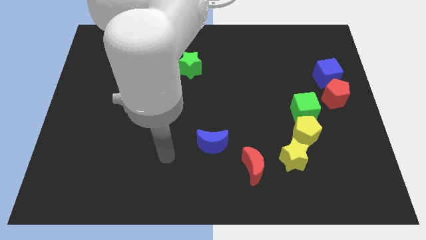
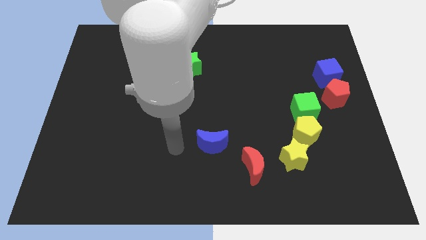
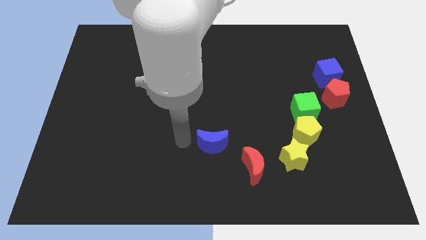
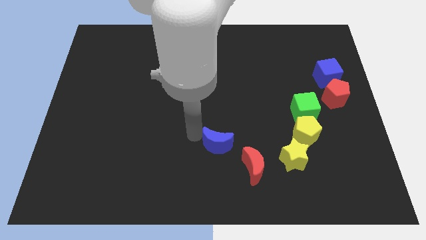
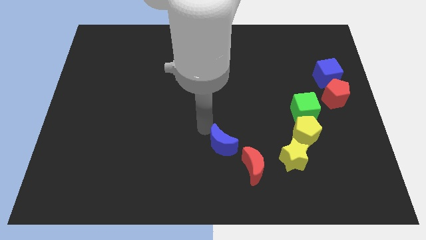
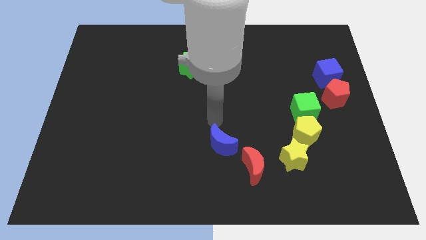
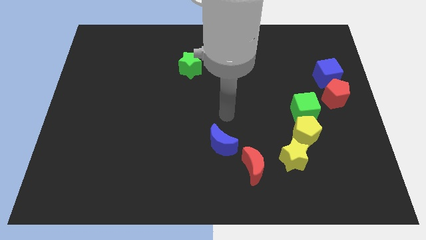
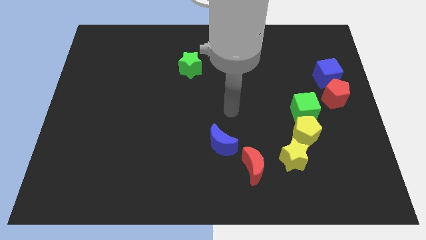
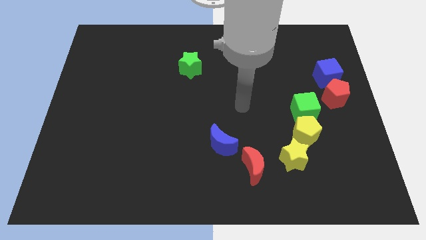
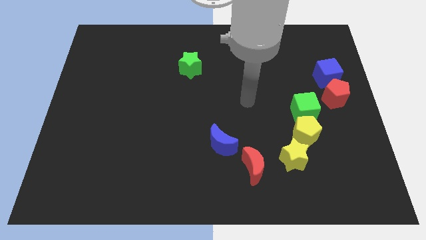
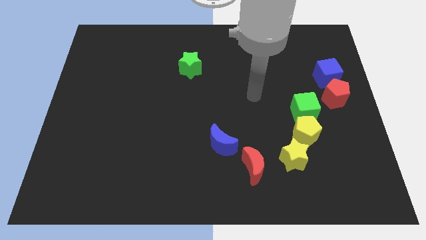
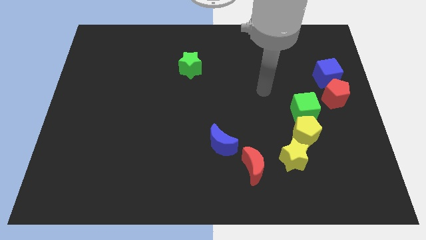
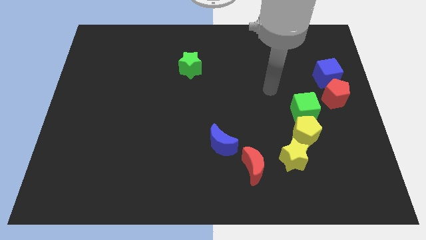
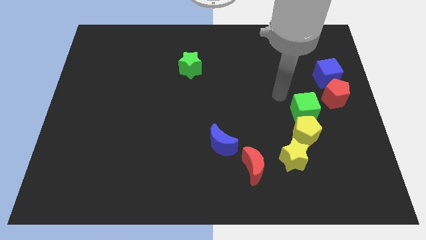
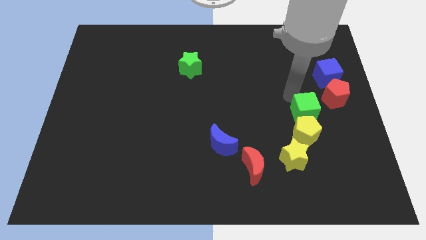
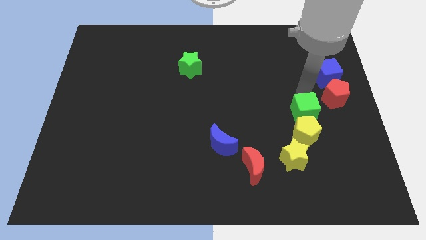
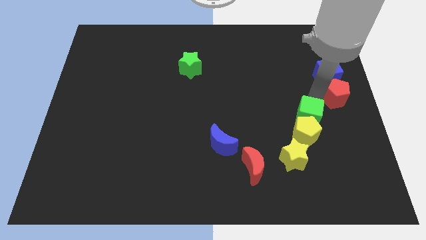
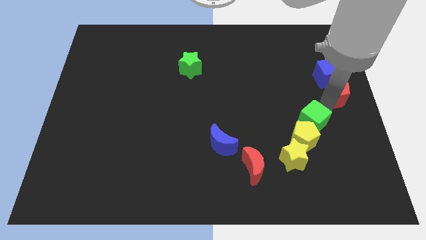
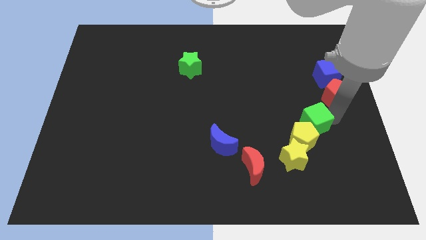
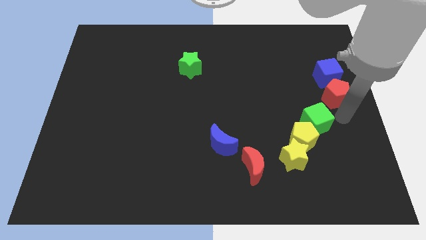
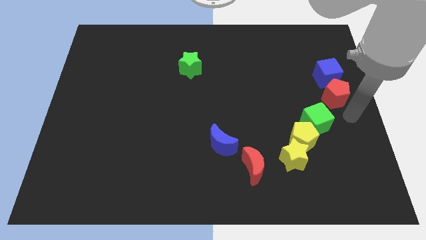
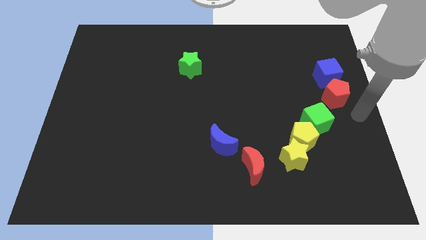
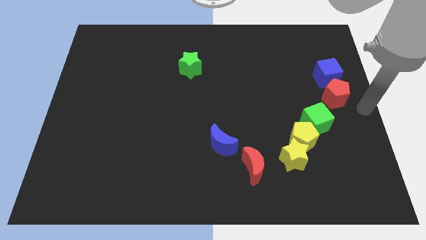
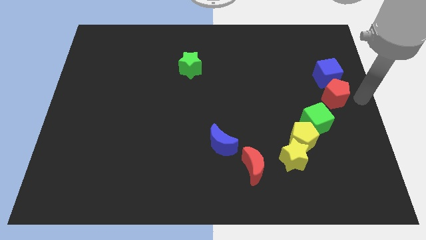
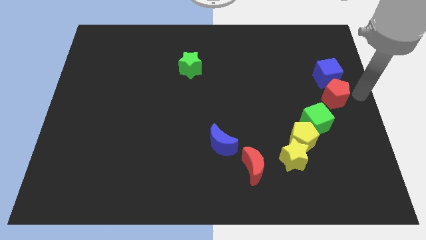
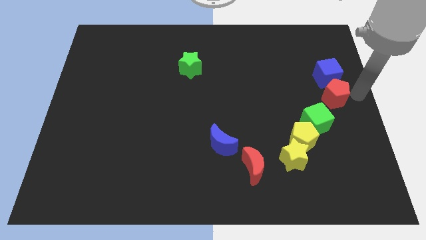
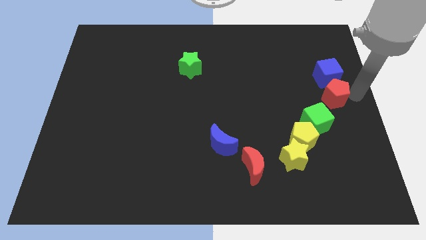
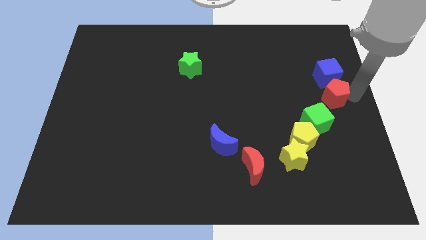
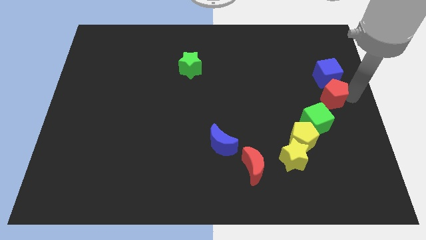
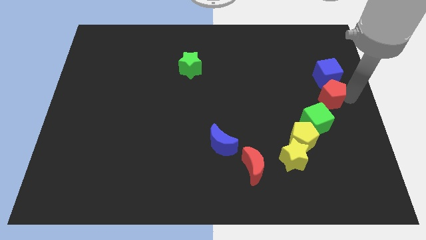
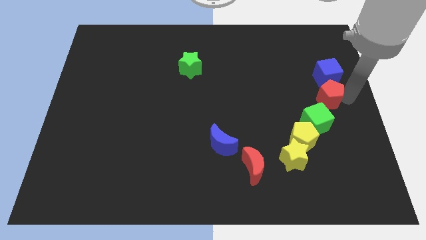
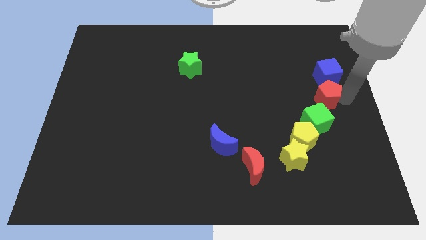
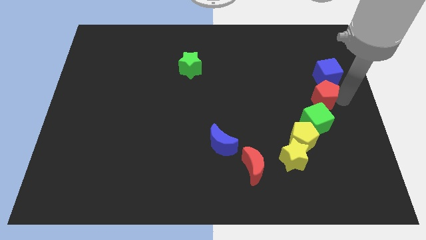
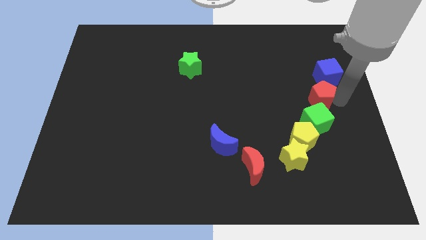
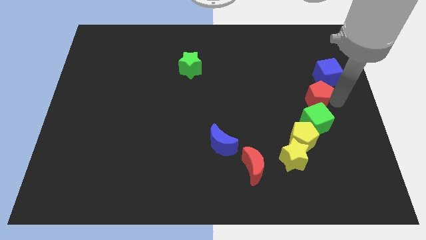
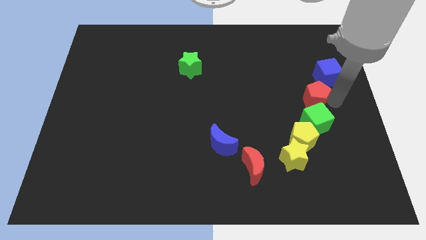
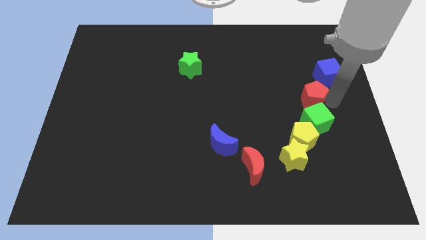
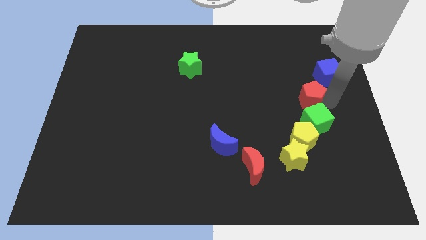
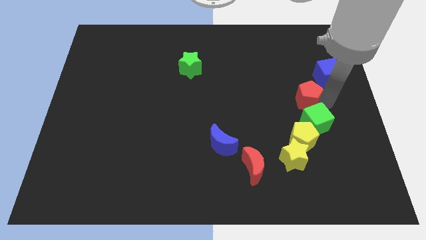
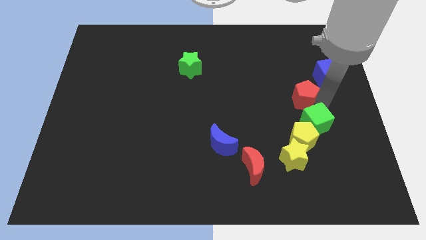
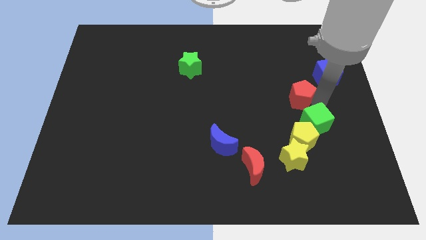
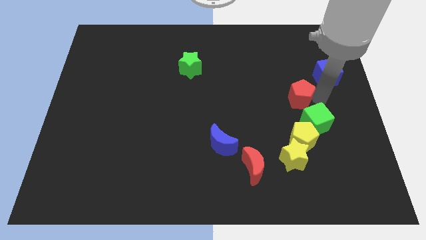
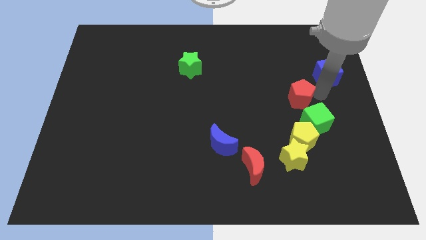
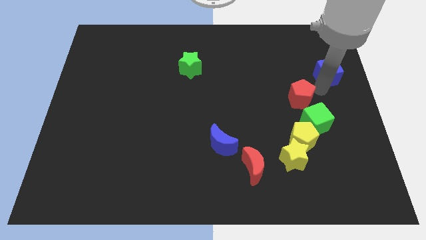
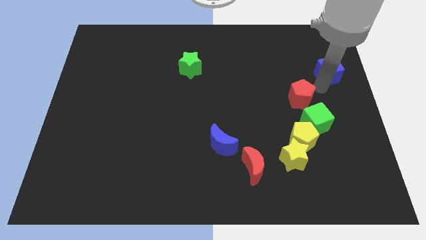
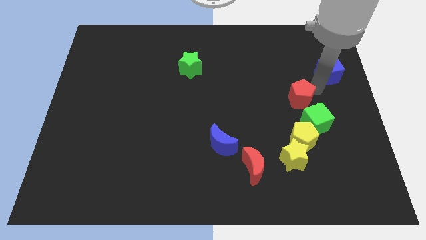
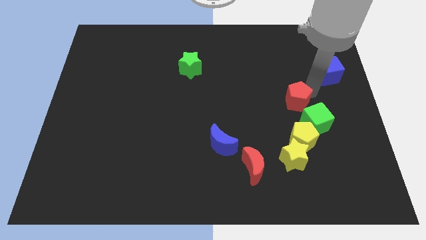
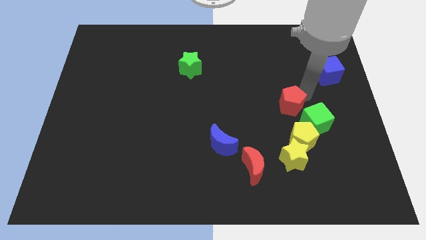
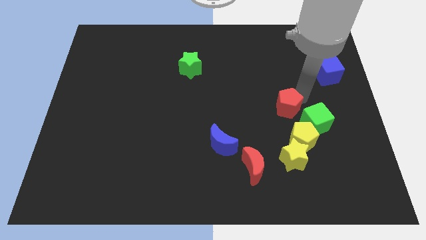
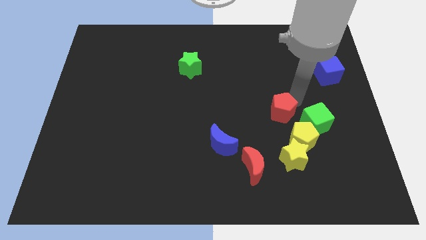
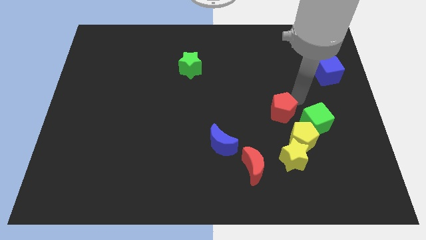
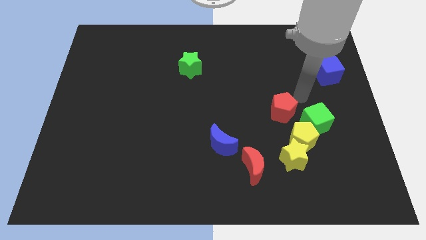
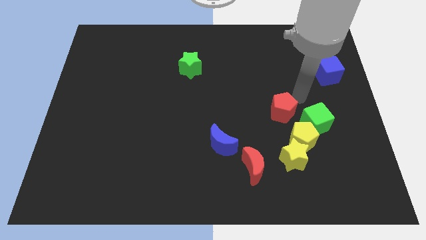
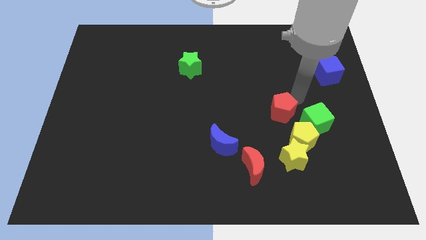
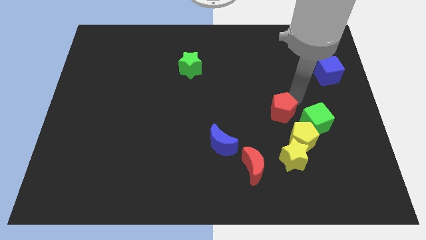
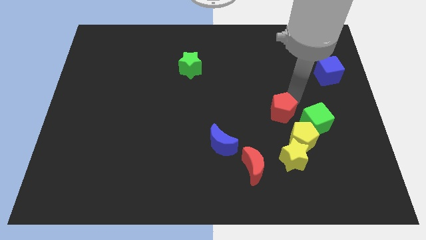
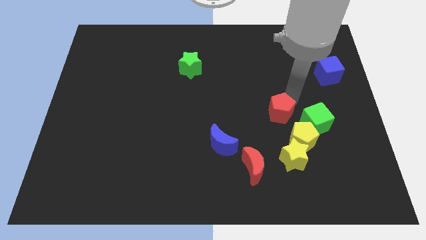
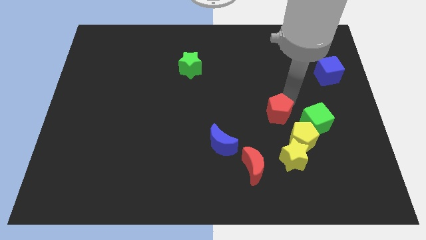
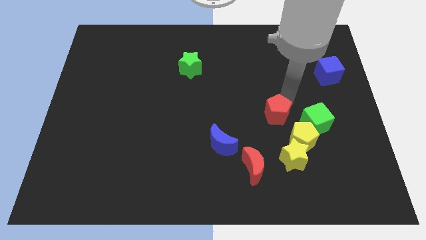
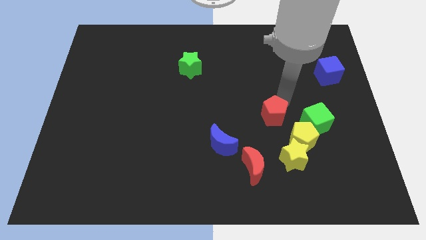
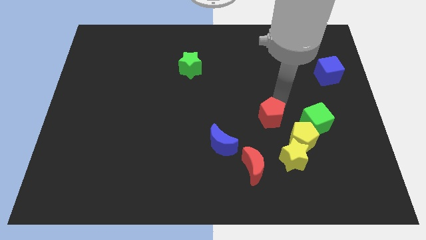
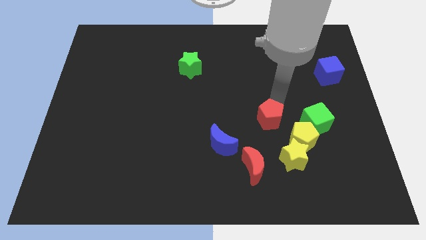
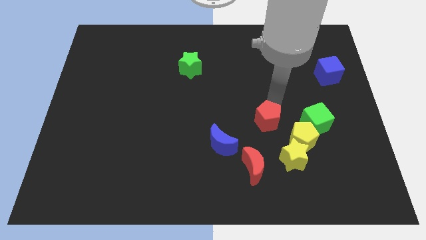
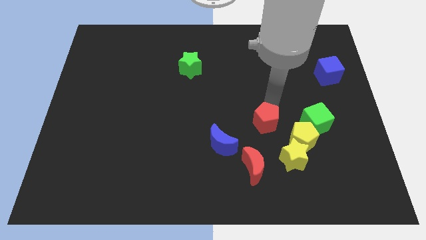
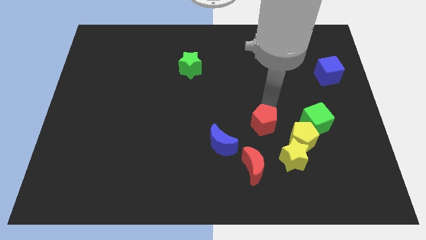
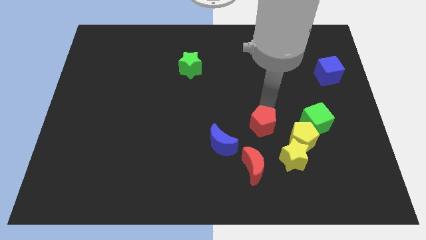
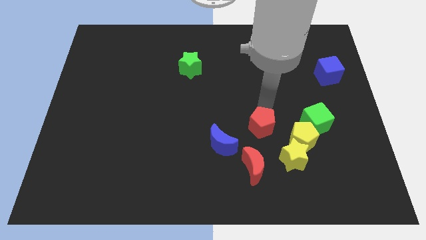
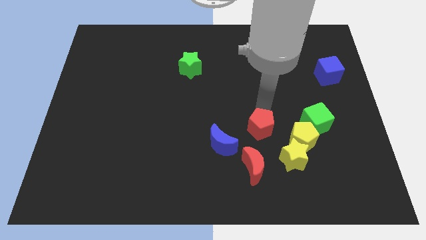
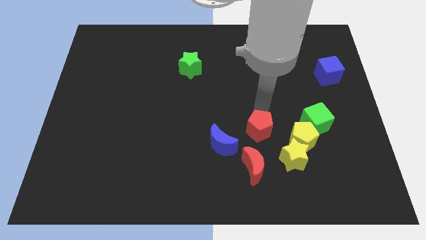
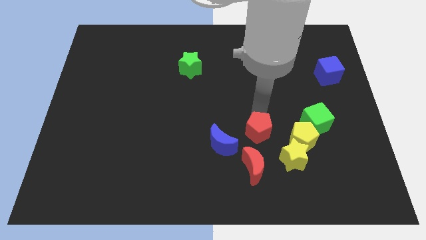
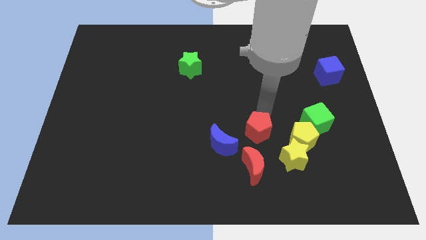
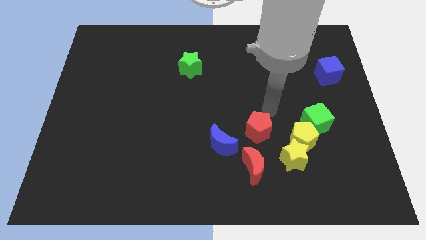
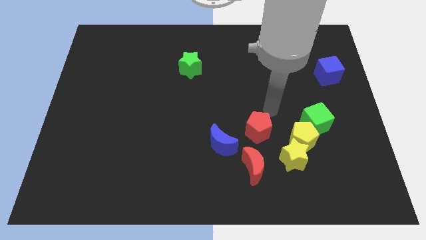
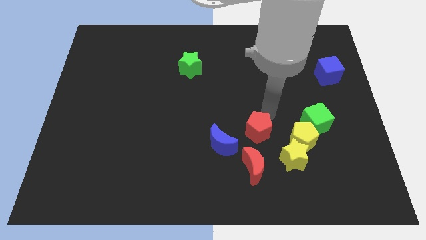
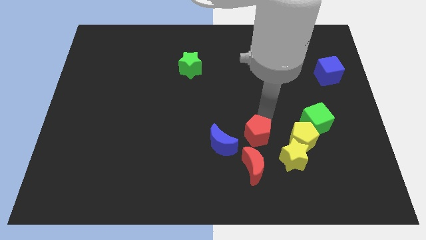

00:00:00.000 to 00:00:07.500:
slide the red pentagon downwards and left

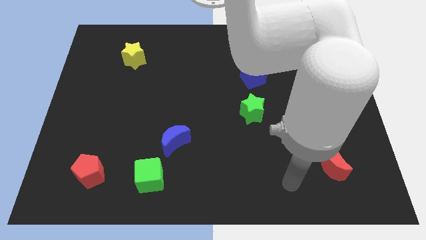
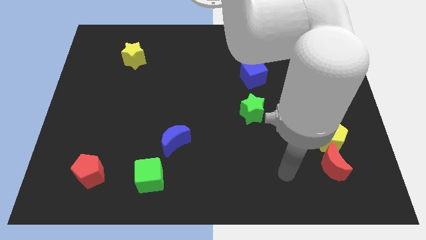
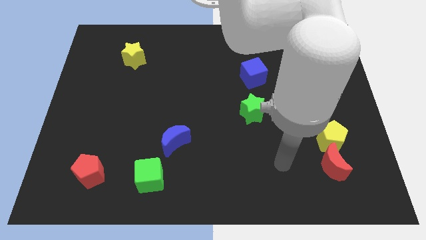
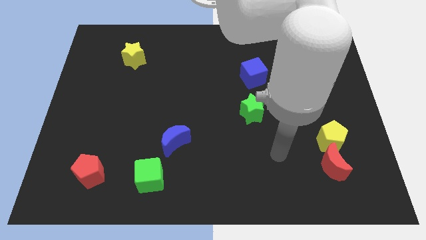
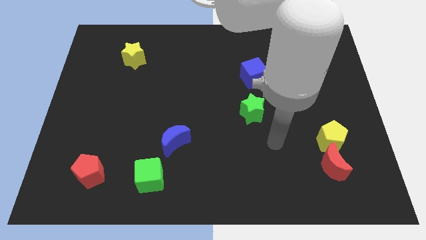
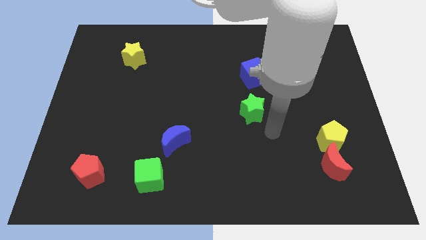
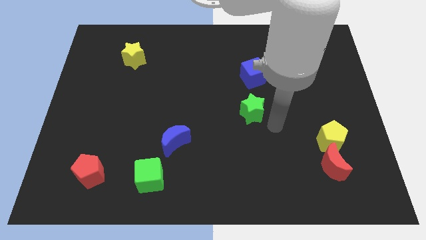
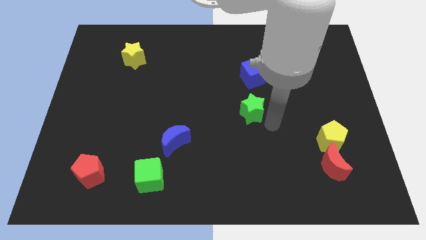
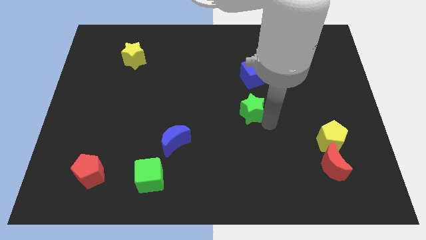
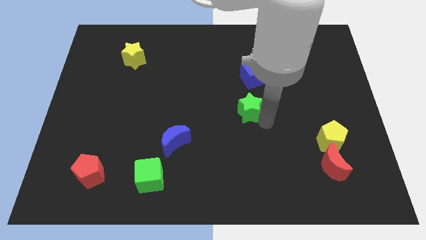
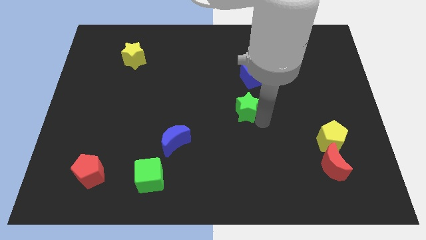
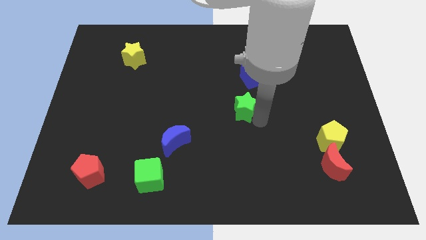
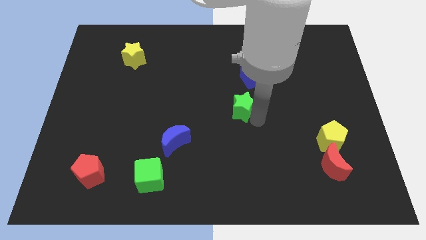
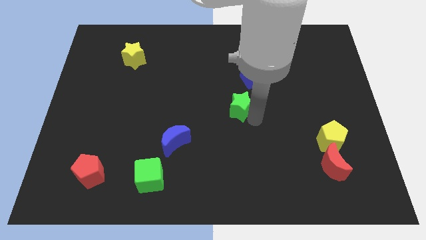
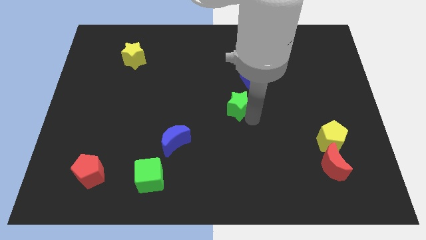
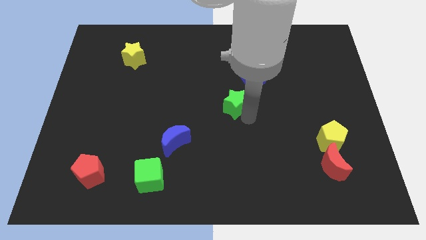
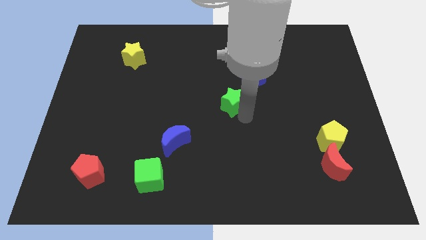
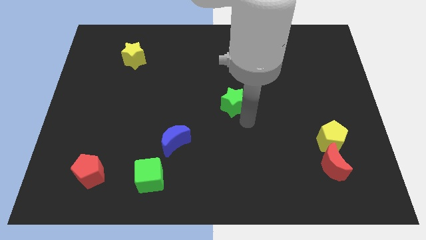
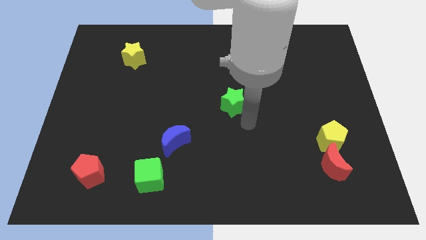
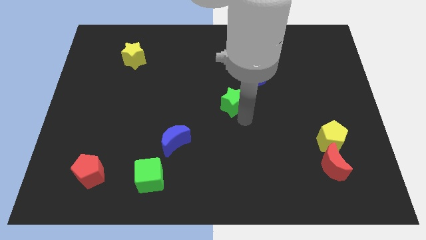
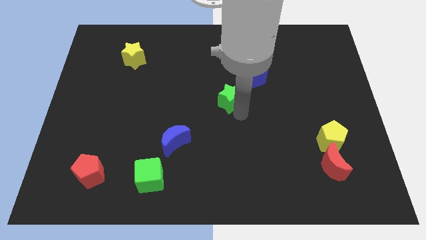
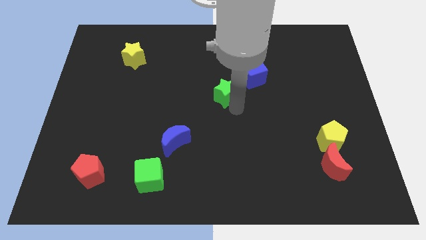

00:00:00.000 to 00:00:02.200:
push the green star diagonally upwards and to the left a little bit
